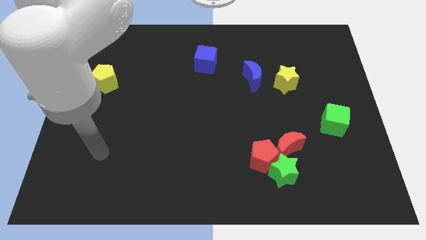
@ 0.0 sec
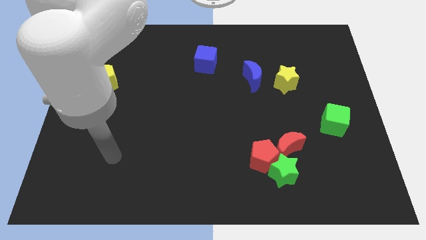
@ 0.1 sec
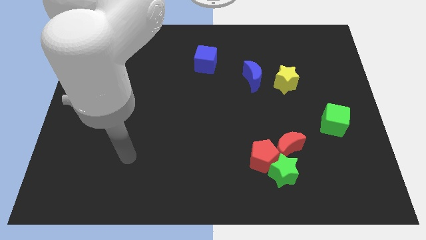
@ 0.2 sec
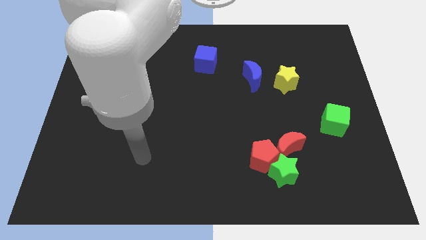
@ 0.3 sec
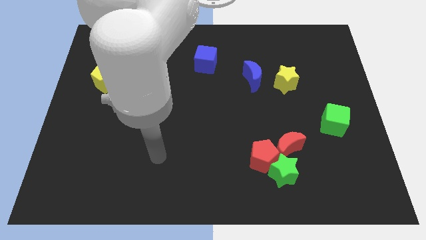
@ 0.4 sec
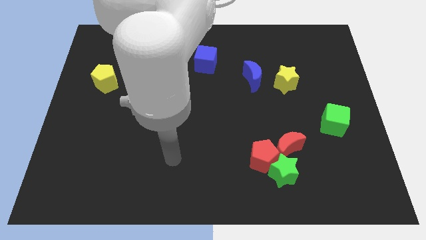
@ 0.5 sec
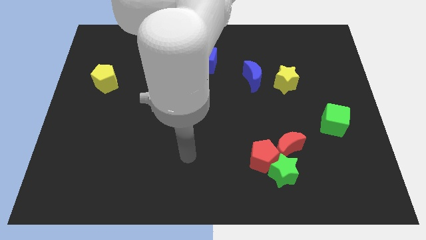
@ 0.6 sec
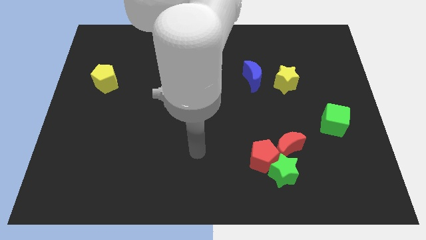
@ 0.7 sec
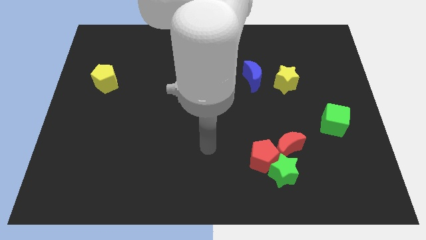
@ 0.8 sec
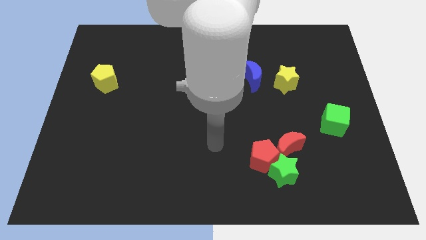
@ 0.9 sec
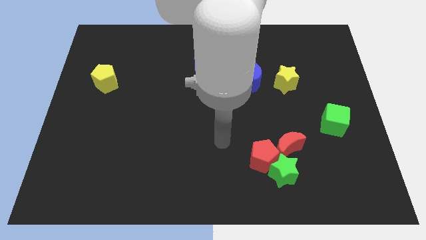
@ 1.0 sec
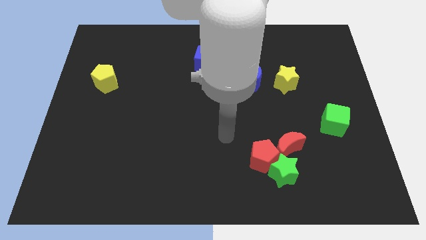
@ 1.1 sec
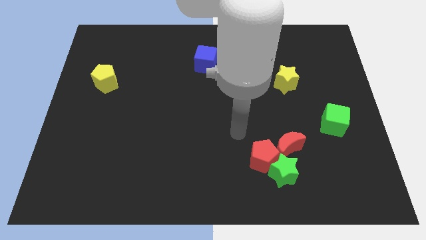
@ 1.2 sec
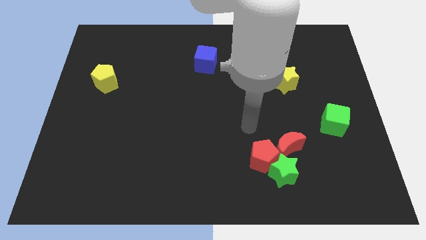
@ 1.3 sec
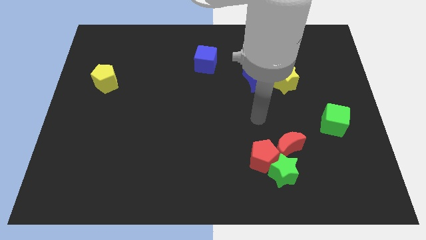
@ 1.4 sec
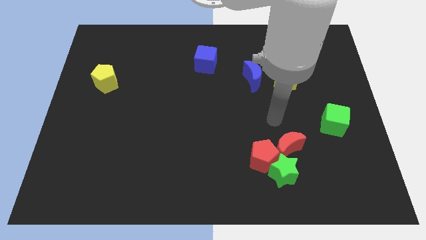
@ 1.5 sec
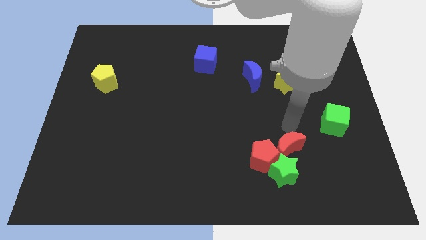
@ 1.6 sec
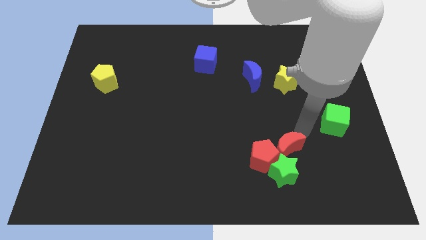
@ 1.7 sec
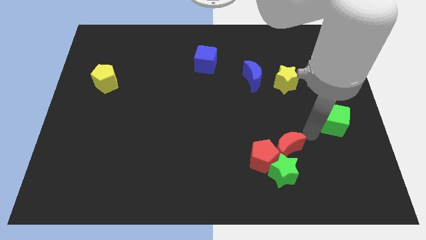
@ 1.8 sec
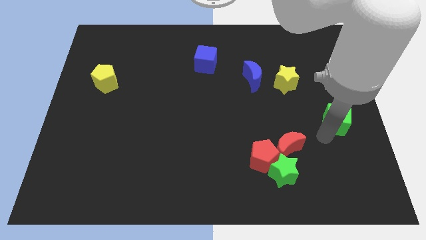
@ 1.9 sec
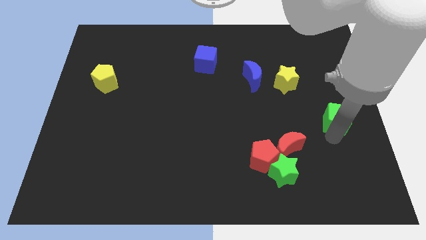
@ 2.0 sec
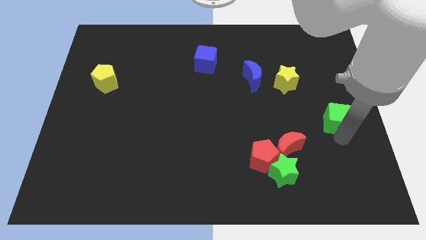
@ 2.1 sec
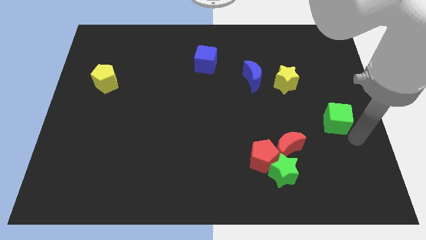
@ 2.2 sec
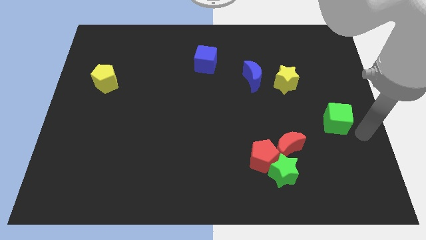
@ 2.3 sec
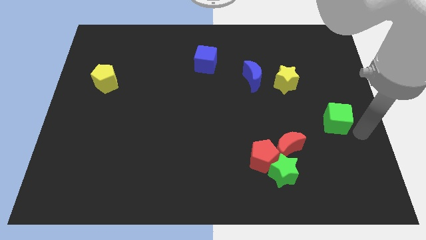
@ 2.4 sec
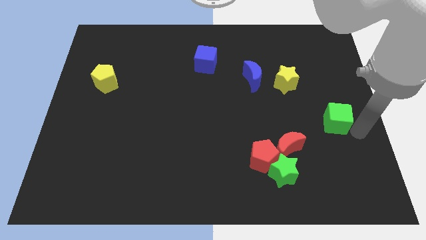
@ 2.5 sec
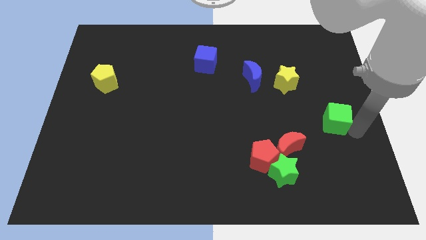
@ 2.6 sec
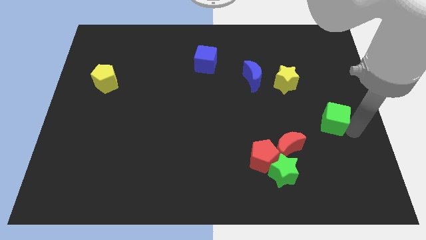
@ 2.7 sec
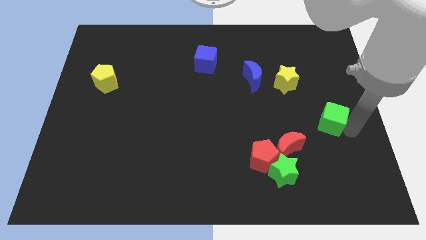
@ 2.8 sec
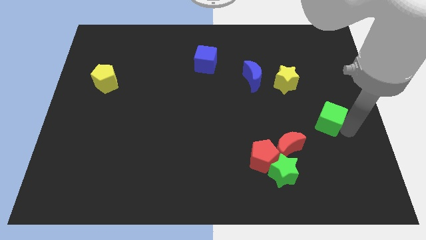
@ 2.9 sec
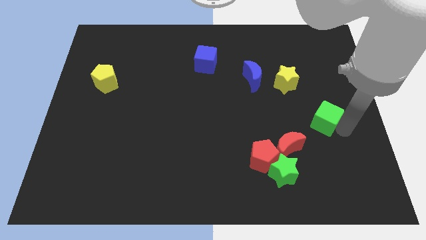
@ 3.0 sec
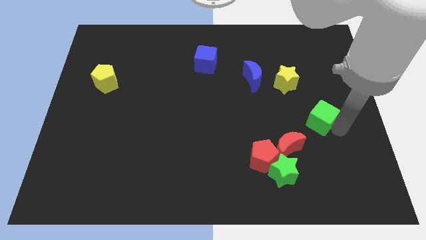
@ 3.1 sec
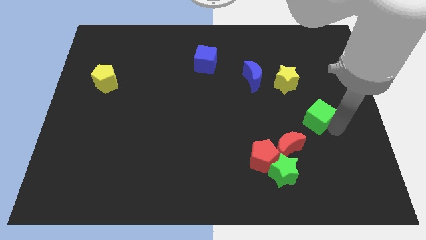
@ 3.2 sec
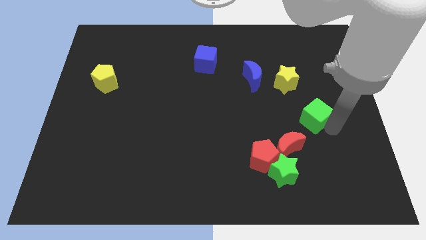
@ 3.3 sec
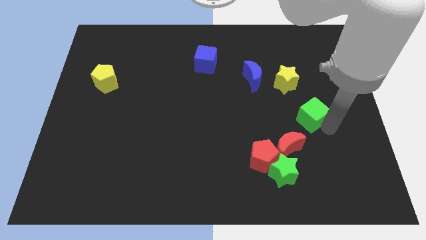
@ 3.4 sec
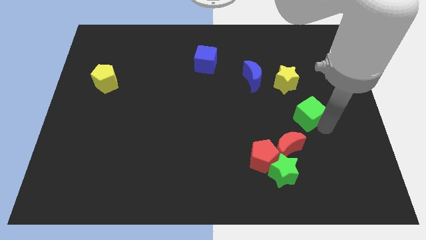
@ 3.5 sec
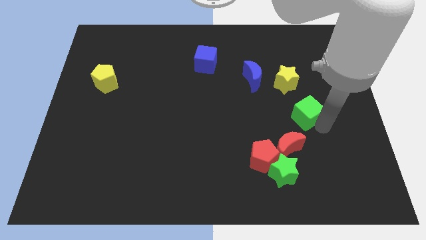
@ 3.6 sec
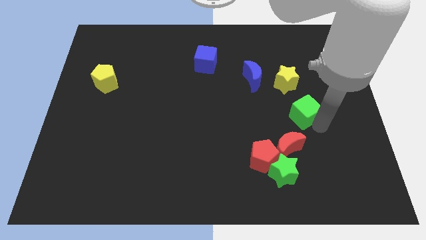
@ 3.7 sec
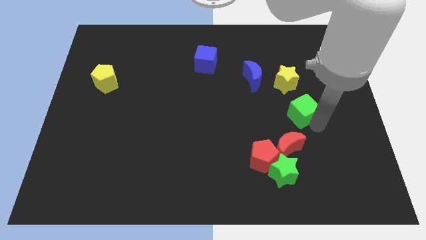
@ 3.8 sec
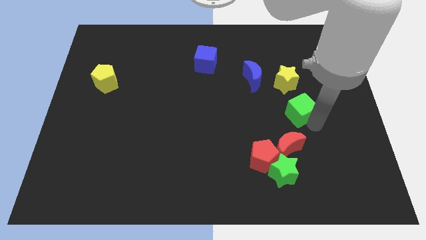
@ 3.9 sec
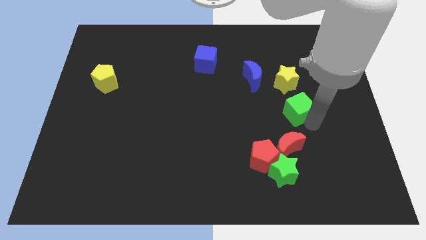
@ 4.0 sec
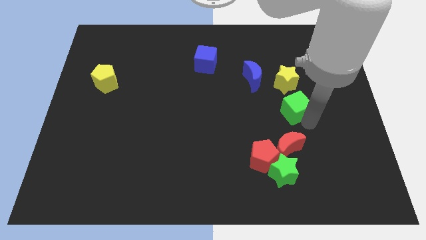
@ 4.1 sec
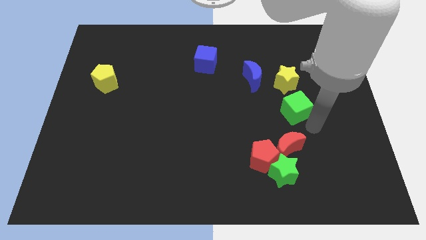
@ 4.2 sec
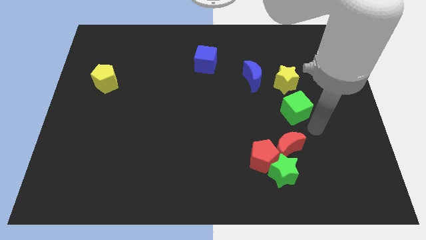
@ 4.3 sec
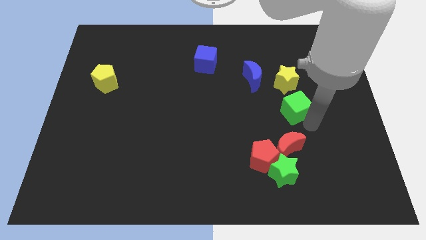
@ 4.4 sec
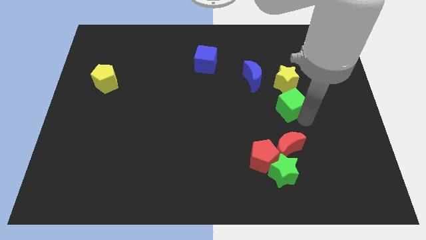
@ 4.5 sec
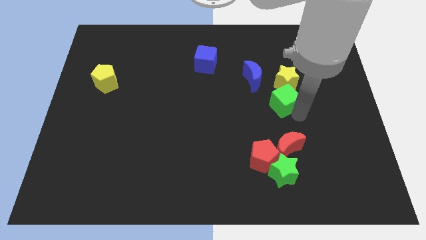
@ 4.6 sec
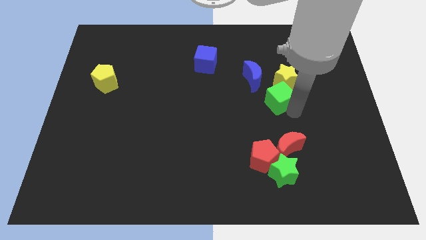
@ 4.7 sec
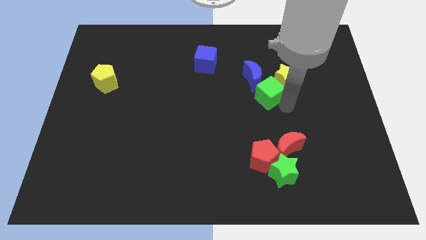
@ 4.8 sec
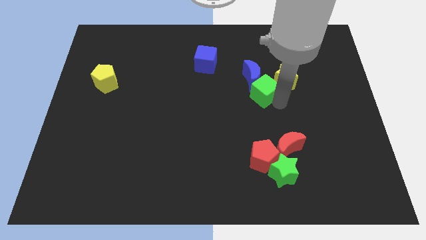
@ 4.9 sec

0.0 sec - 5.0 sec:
put the green cube to the blue moon

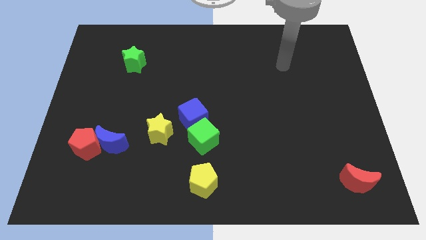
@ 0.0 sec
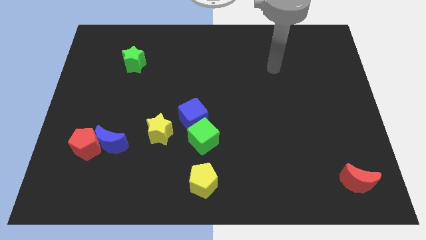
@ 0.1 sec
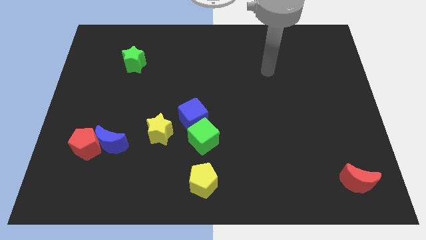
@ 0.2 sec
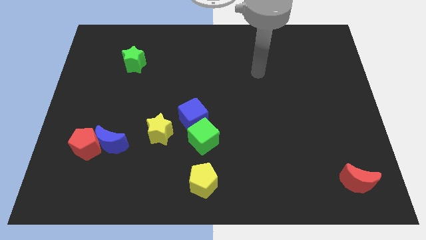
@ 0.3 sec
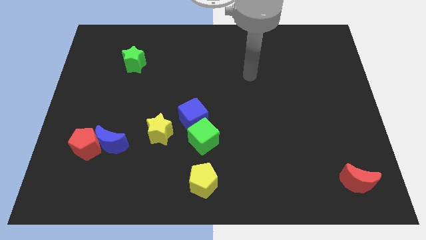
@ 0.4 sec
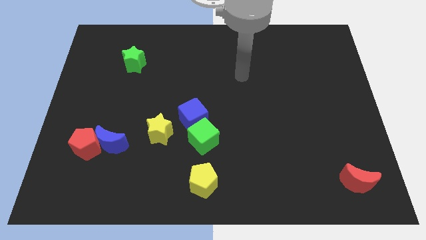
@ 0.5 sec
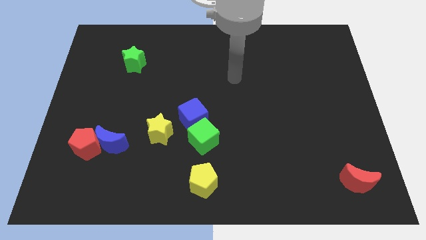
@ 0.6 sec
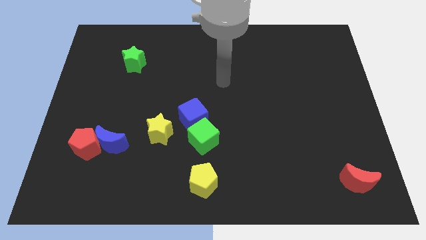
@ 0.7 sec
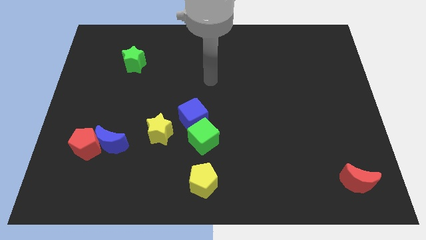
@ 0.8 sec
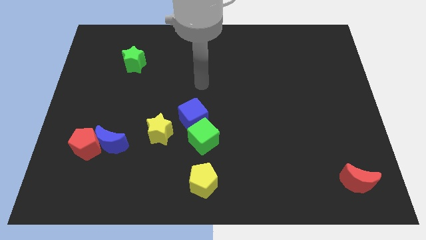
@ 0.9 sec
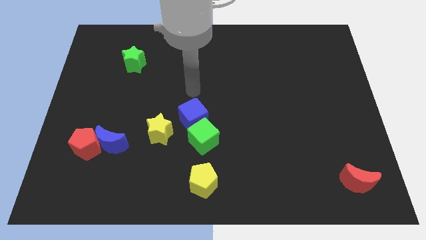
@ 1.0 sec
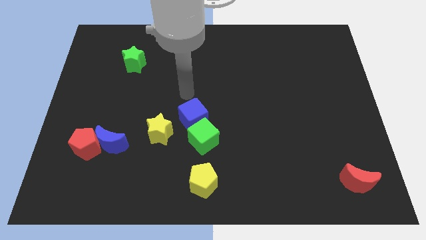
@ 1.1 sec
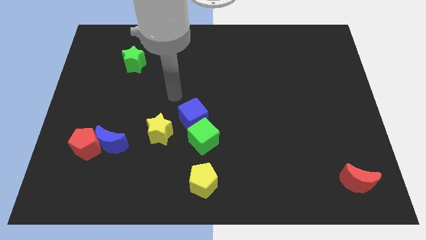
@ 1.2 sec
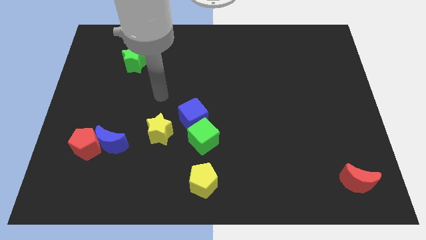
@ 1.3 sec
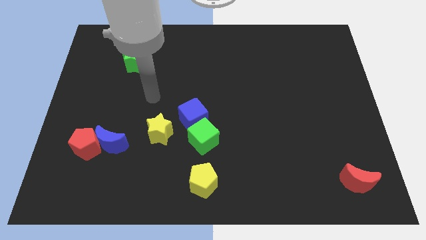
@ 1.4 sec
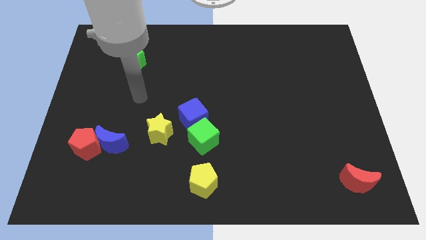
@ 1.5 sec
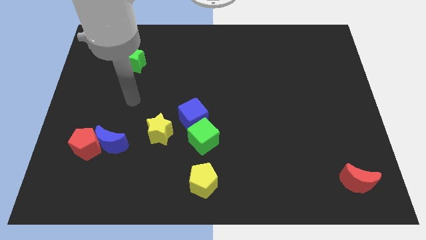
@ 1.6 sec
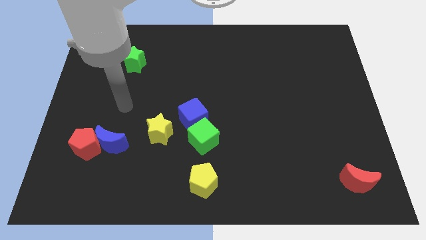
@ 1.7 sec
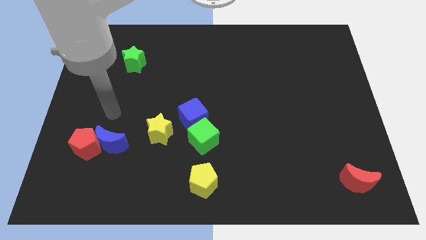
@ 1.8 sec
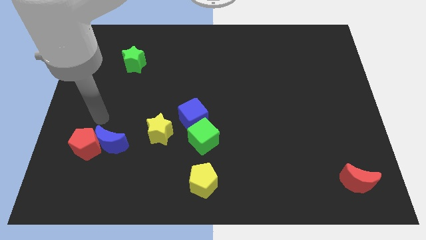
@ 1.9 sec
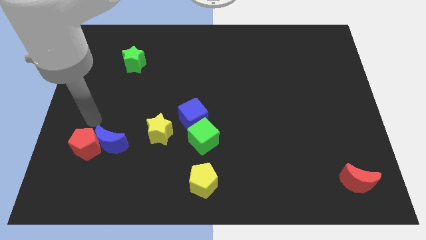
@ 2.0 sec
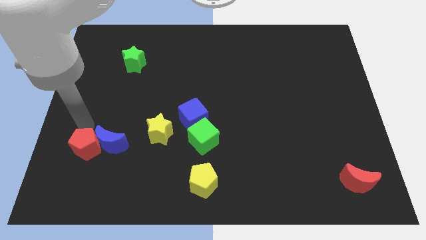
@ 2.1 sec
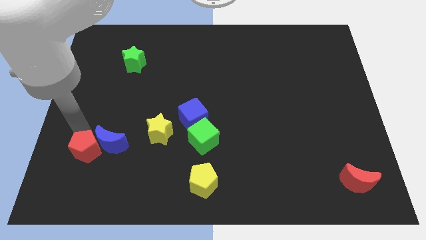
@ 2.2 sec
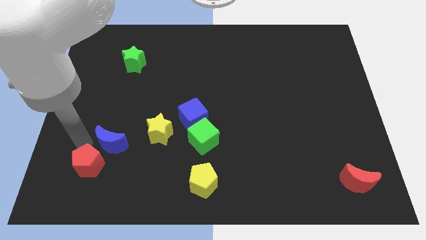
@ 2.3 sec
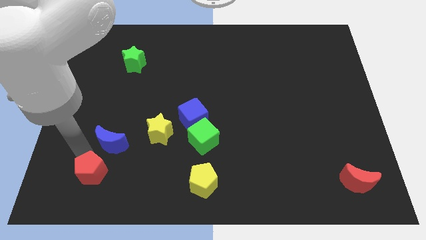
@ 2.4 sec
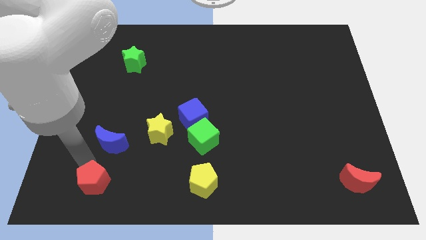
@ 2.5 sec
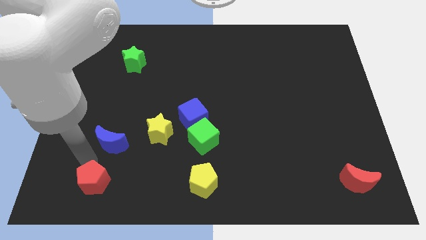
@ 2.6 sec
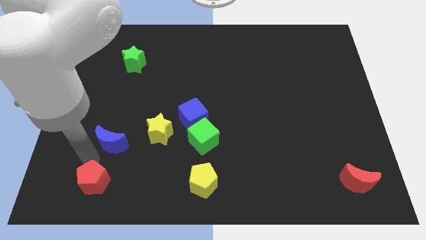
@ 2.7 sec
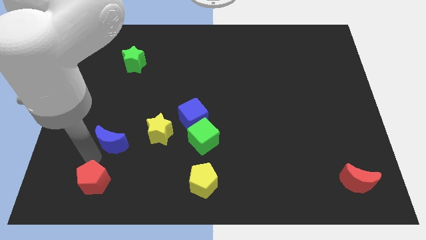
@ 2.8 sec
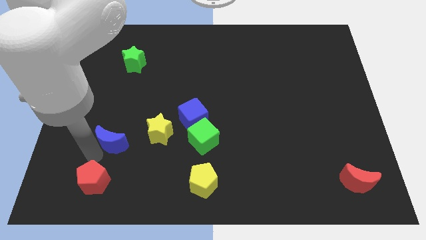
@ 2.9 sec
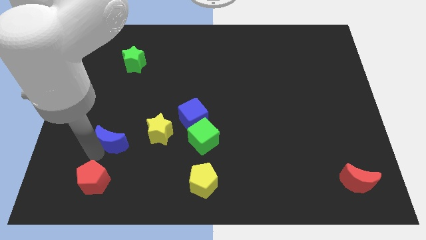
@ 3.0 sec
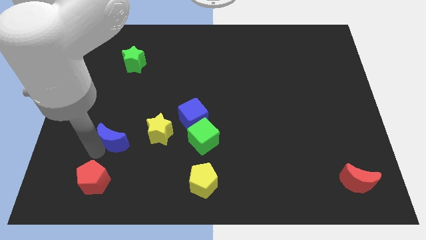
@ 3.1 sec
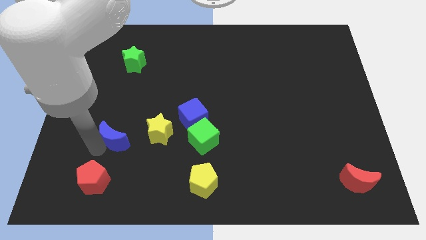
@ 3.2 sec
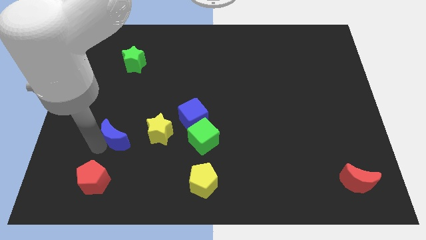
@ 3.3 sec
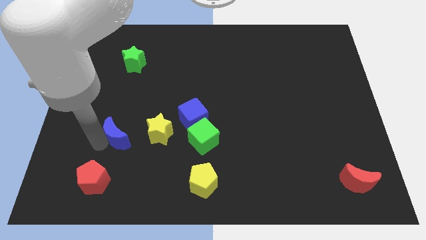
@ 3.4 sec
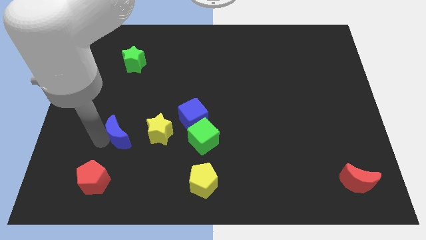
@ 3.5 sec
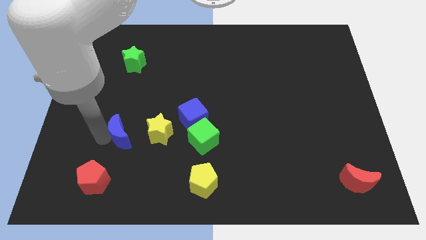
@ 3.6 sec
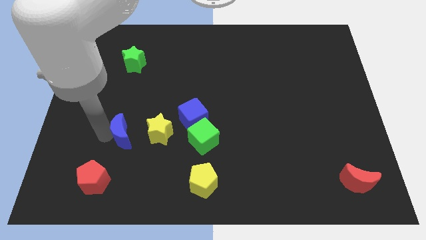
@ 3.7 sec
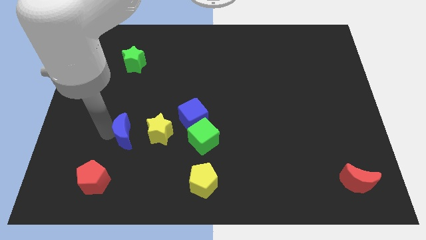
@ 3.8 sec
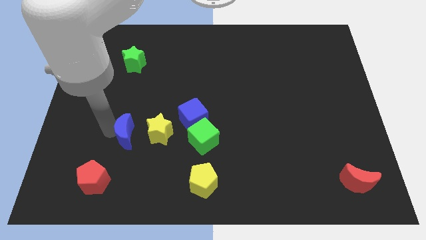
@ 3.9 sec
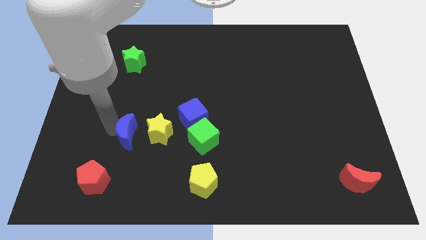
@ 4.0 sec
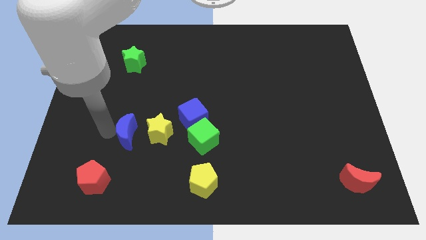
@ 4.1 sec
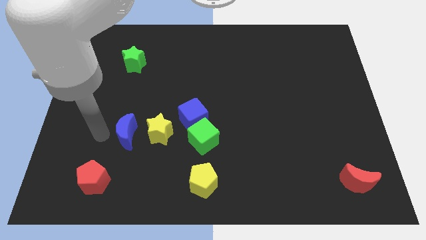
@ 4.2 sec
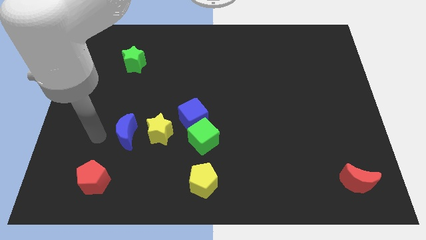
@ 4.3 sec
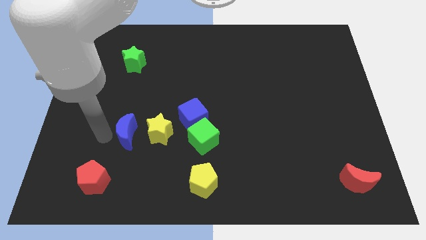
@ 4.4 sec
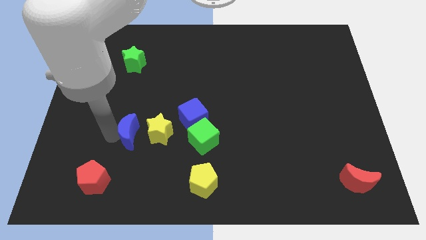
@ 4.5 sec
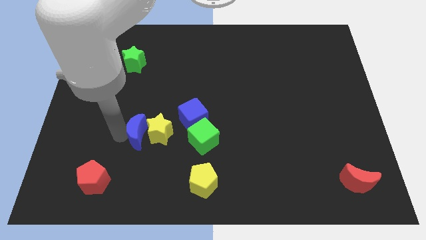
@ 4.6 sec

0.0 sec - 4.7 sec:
push the blue moon close to the yellow star
